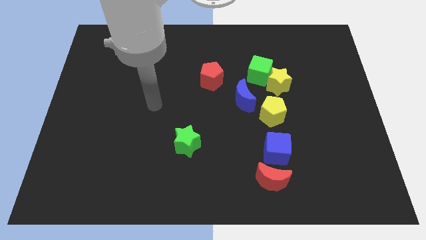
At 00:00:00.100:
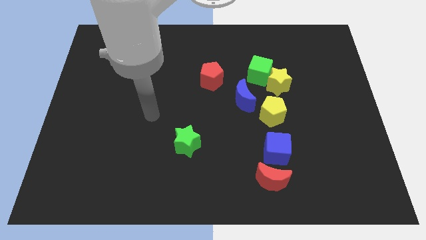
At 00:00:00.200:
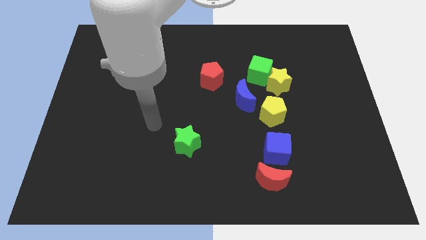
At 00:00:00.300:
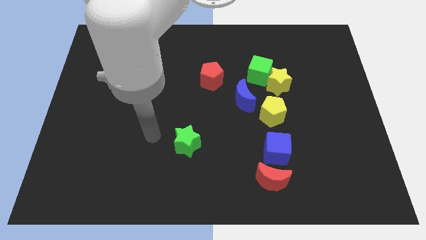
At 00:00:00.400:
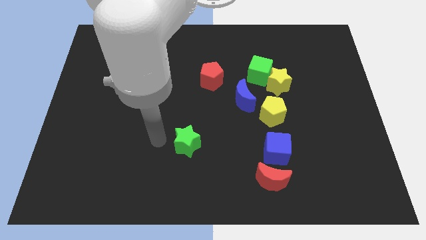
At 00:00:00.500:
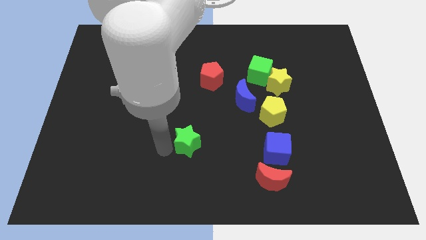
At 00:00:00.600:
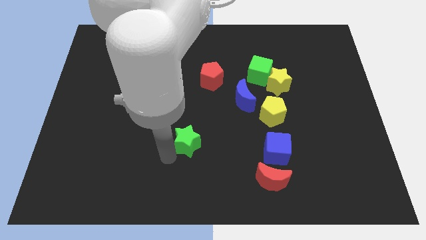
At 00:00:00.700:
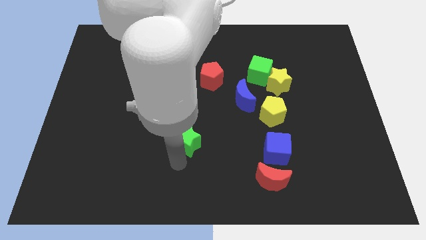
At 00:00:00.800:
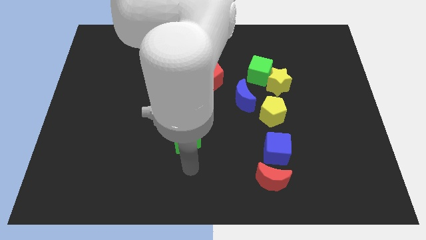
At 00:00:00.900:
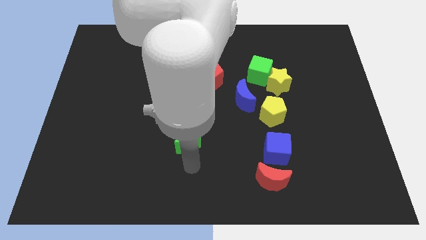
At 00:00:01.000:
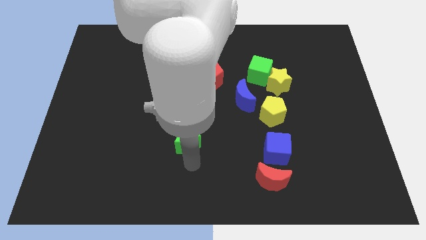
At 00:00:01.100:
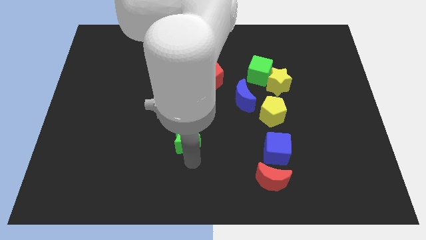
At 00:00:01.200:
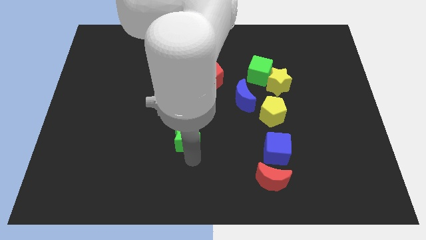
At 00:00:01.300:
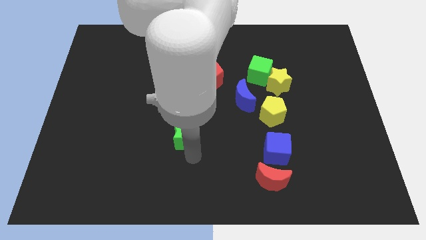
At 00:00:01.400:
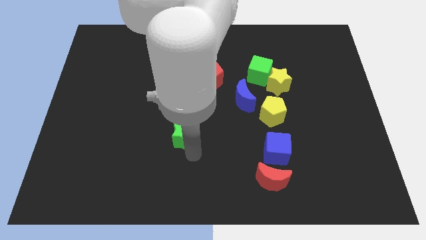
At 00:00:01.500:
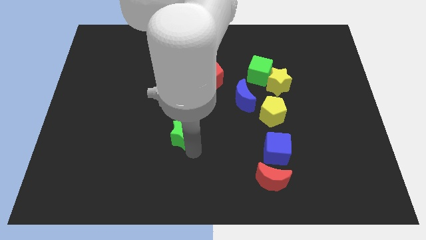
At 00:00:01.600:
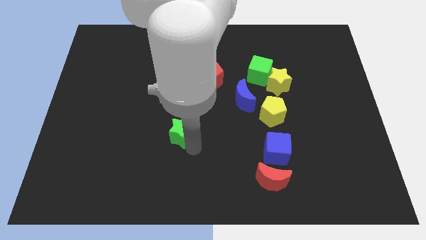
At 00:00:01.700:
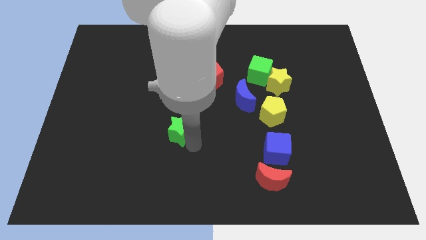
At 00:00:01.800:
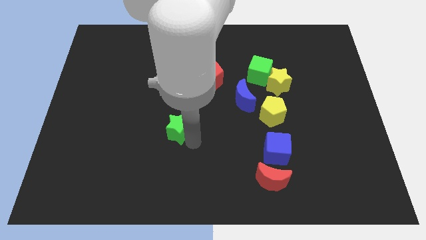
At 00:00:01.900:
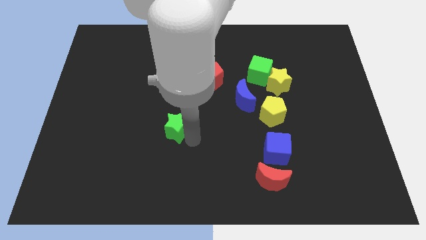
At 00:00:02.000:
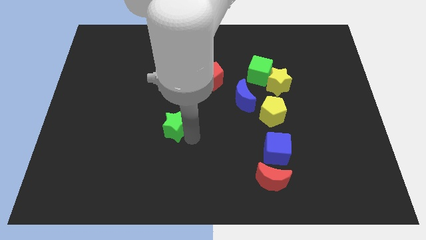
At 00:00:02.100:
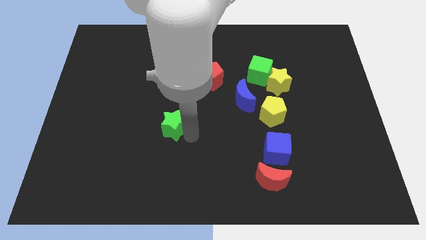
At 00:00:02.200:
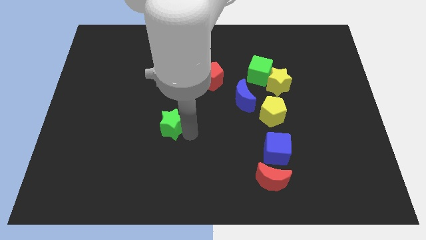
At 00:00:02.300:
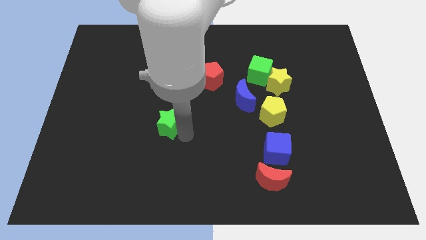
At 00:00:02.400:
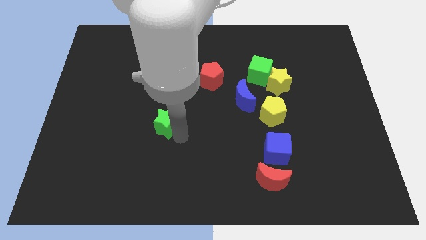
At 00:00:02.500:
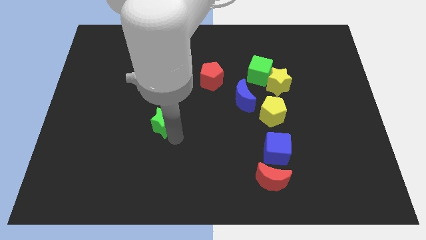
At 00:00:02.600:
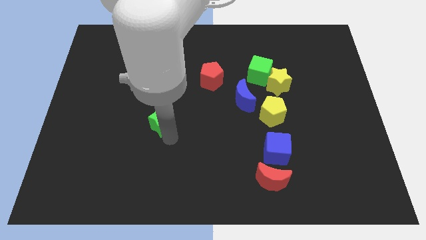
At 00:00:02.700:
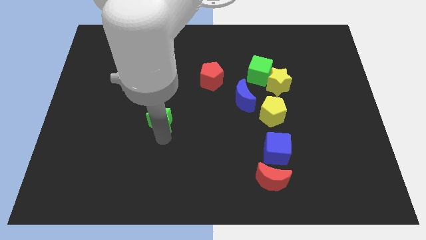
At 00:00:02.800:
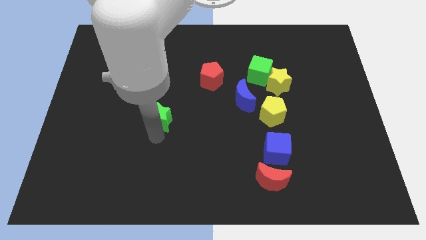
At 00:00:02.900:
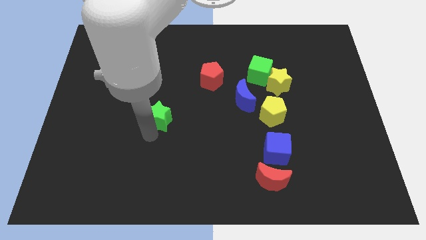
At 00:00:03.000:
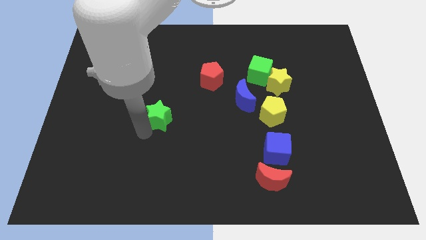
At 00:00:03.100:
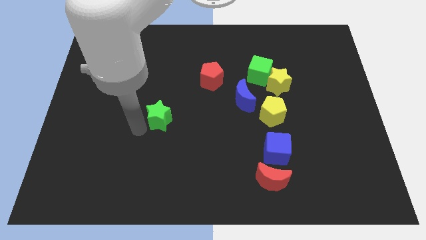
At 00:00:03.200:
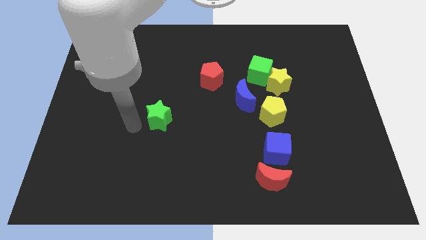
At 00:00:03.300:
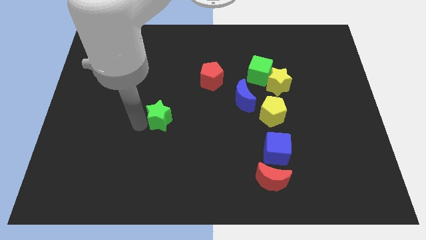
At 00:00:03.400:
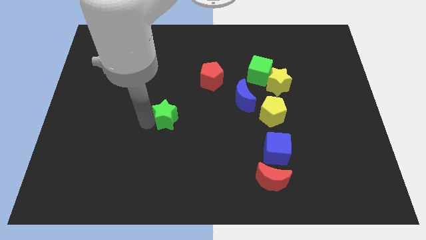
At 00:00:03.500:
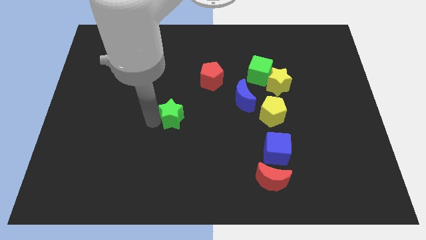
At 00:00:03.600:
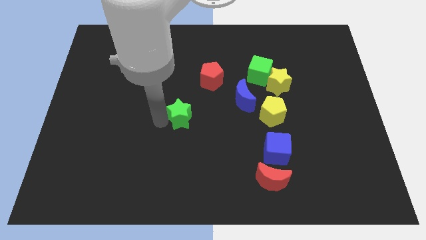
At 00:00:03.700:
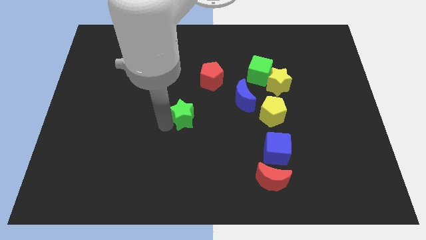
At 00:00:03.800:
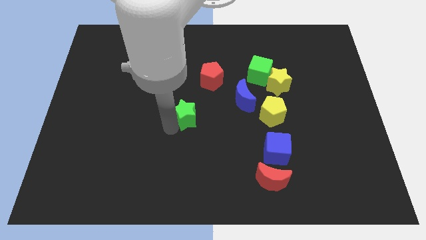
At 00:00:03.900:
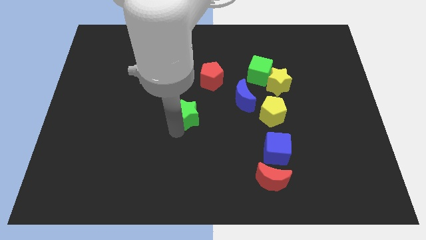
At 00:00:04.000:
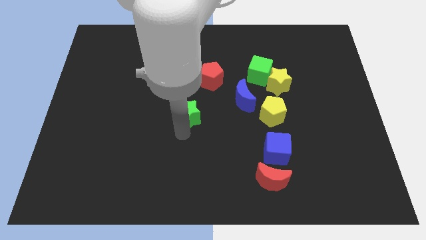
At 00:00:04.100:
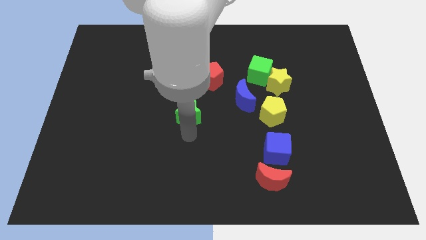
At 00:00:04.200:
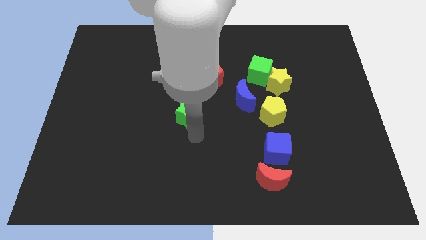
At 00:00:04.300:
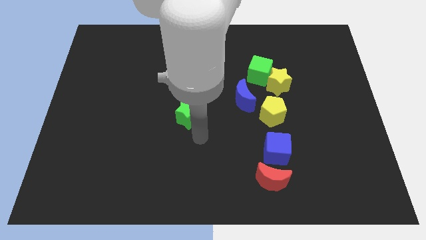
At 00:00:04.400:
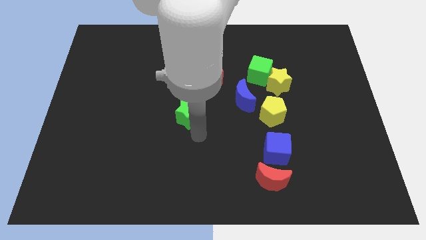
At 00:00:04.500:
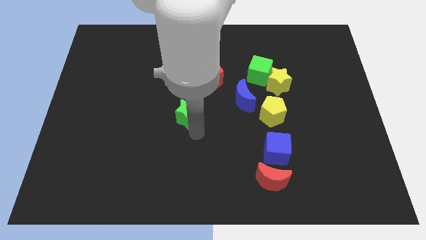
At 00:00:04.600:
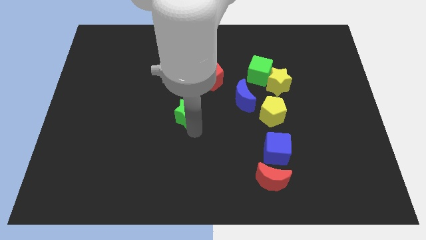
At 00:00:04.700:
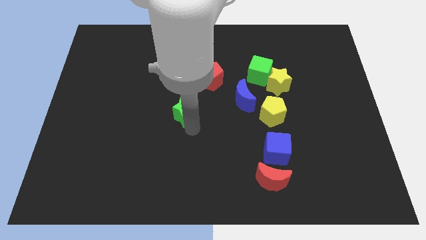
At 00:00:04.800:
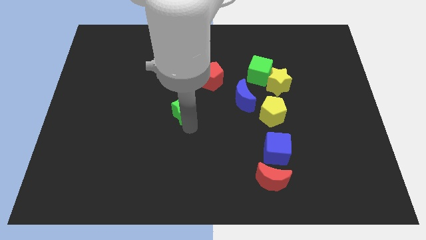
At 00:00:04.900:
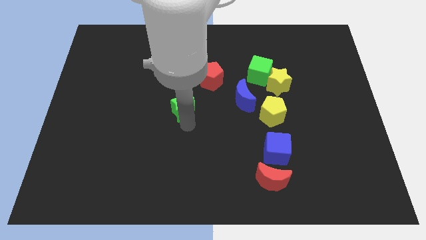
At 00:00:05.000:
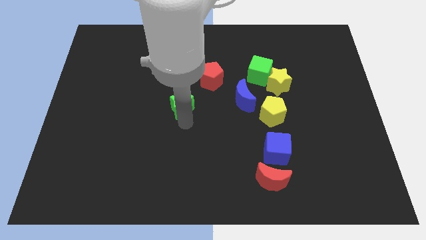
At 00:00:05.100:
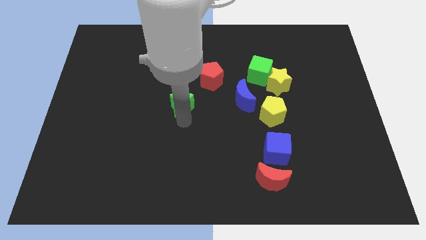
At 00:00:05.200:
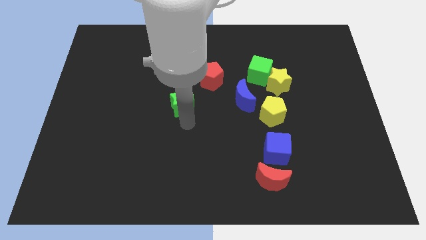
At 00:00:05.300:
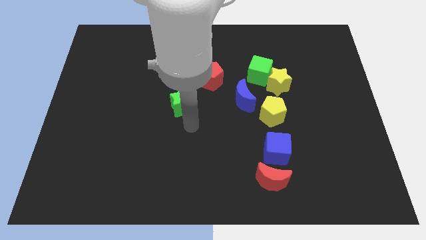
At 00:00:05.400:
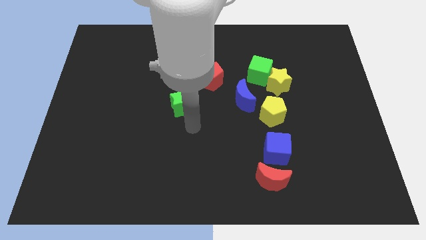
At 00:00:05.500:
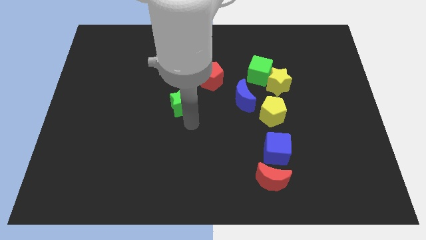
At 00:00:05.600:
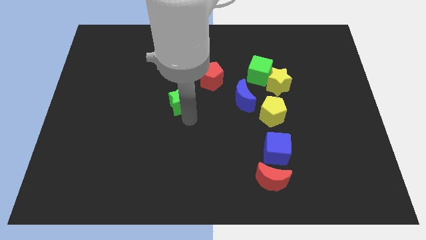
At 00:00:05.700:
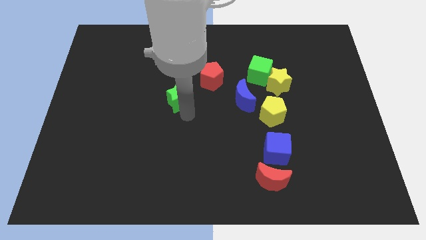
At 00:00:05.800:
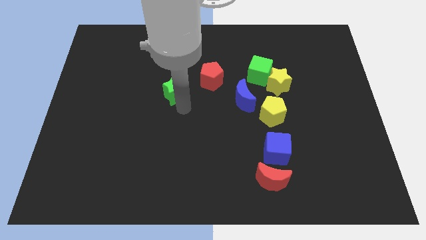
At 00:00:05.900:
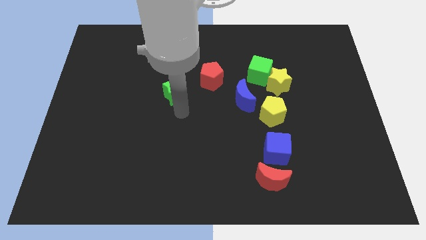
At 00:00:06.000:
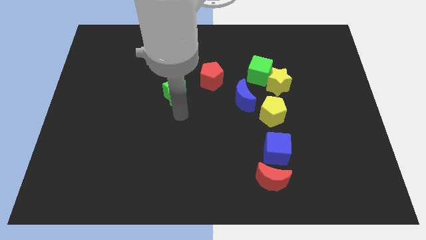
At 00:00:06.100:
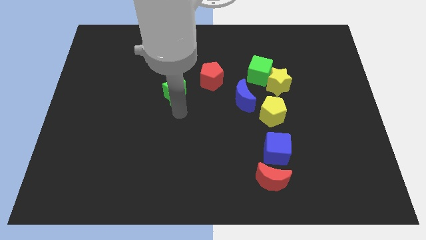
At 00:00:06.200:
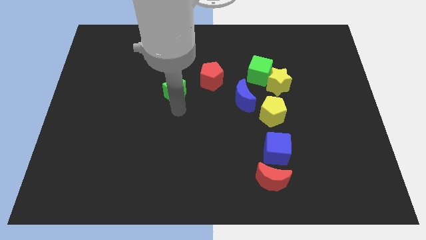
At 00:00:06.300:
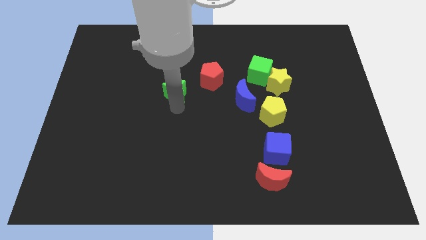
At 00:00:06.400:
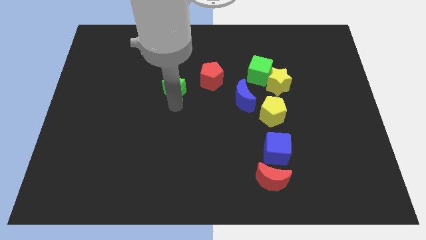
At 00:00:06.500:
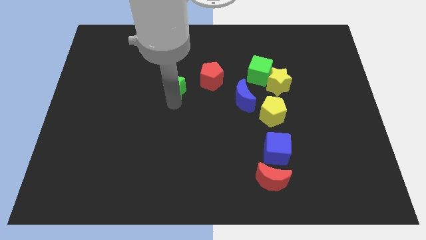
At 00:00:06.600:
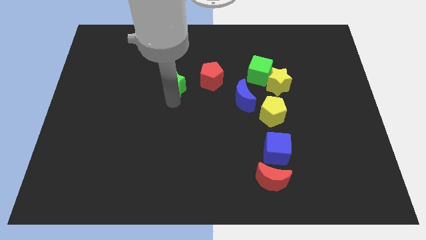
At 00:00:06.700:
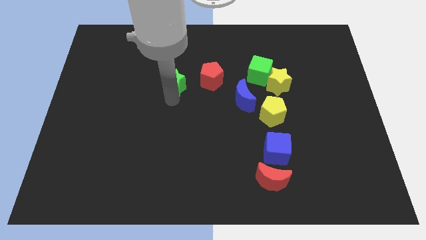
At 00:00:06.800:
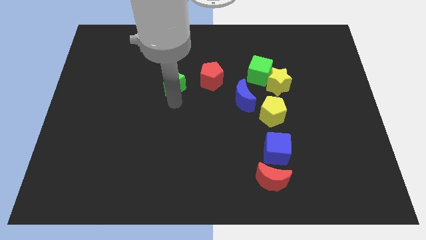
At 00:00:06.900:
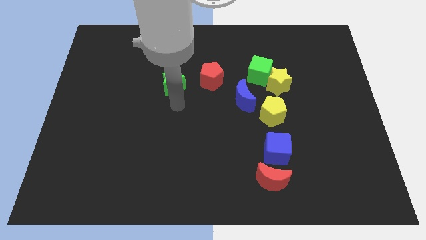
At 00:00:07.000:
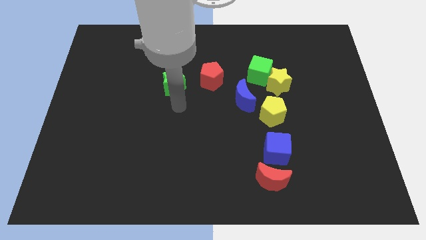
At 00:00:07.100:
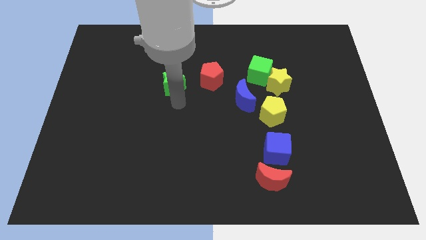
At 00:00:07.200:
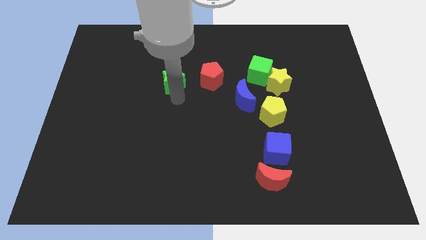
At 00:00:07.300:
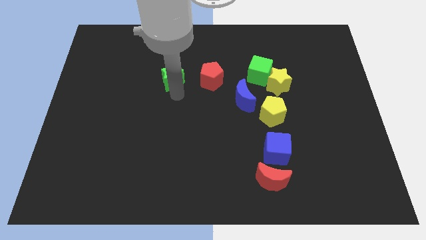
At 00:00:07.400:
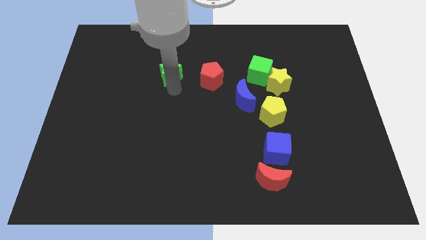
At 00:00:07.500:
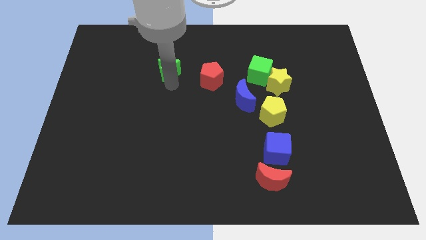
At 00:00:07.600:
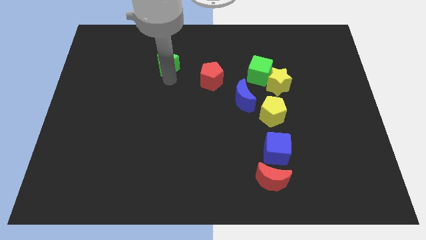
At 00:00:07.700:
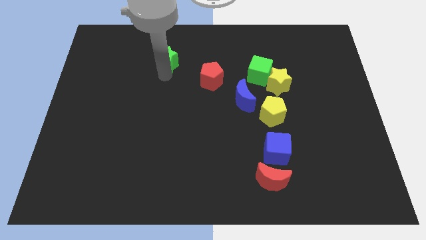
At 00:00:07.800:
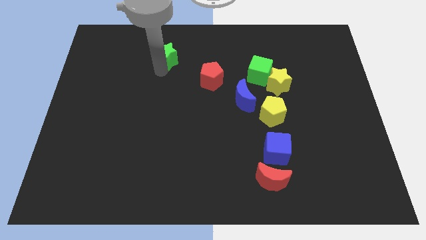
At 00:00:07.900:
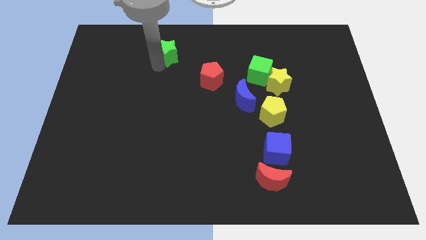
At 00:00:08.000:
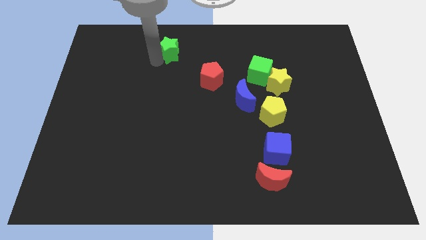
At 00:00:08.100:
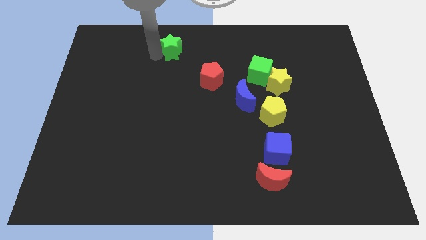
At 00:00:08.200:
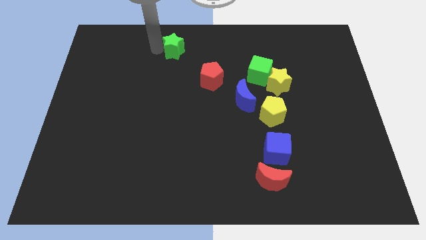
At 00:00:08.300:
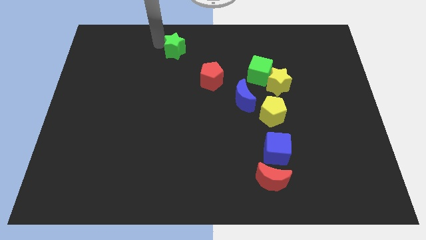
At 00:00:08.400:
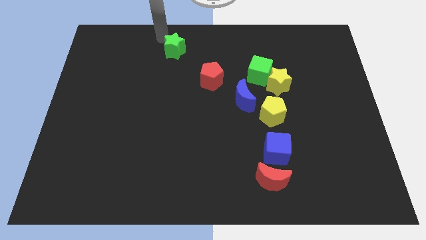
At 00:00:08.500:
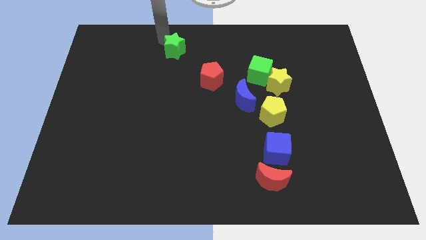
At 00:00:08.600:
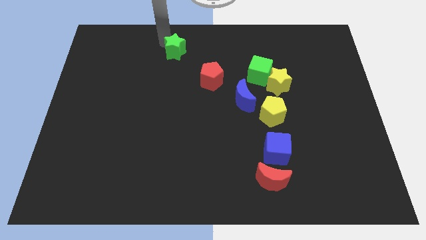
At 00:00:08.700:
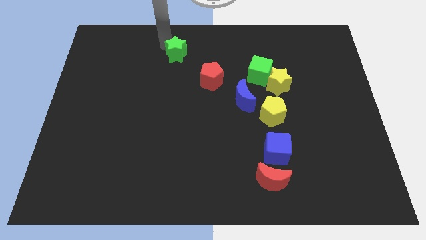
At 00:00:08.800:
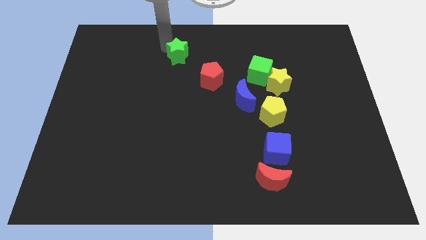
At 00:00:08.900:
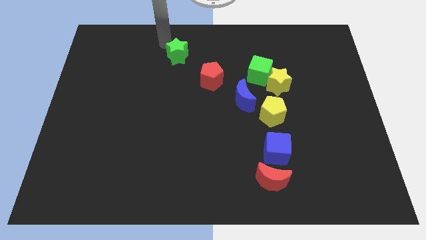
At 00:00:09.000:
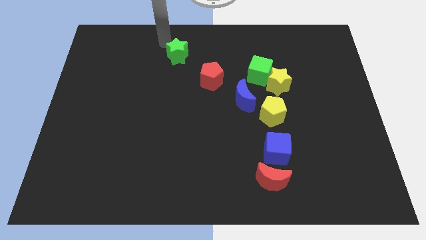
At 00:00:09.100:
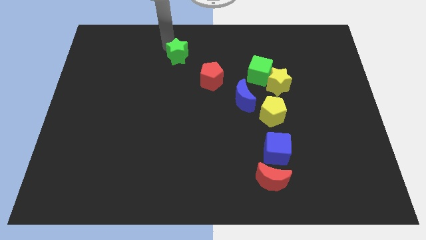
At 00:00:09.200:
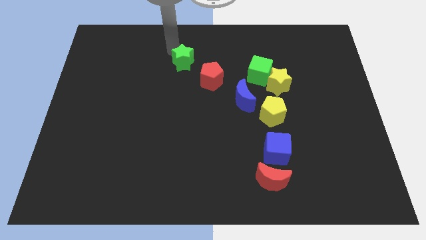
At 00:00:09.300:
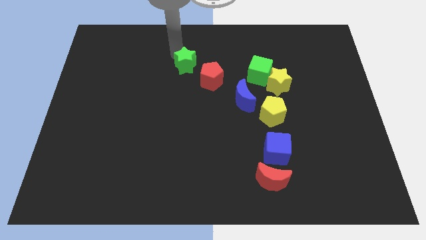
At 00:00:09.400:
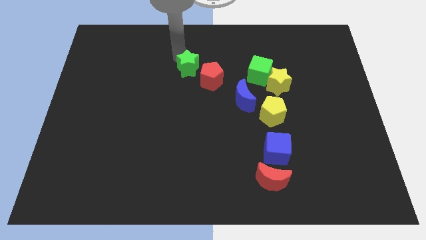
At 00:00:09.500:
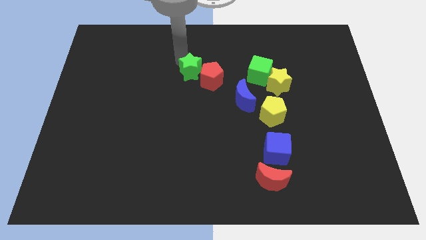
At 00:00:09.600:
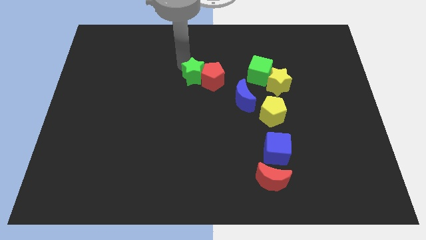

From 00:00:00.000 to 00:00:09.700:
slide the green star left of the green cube
